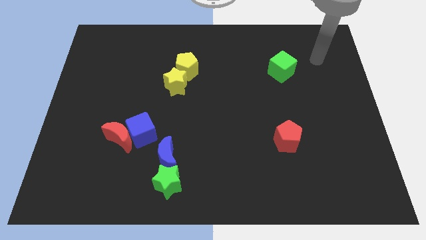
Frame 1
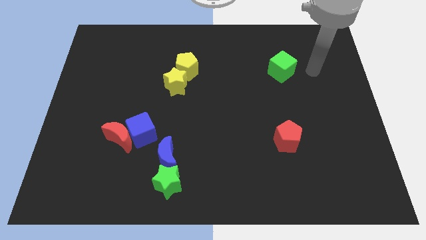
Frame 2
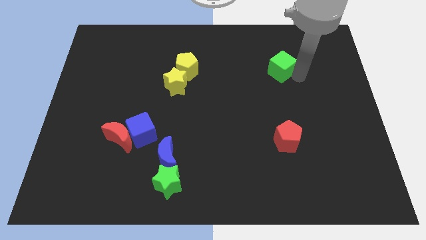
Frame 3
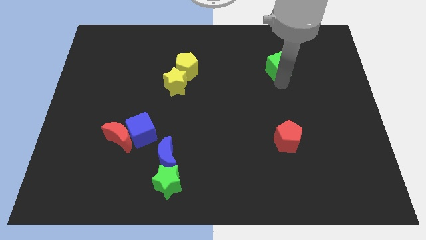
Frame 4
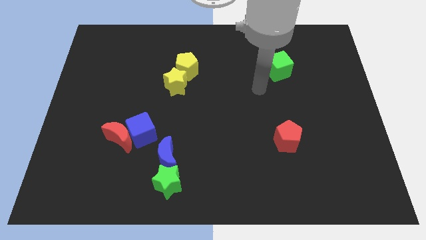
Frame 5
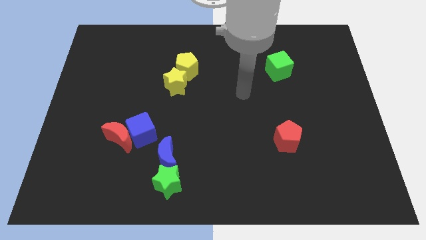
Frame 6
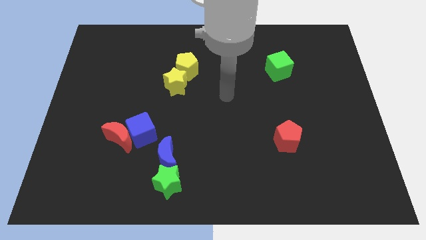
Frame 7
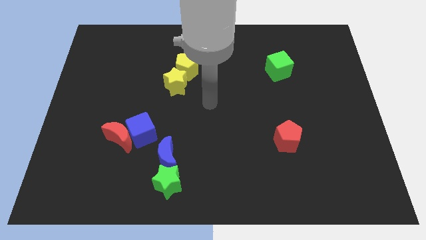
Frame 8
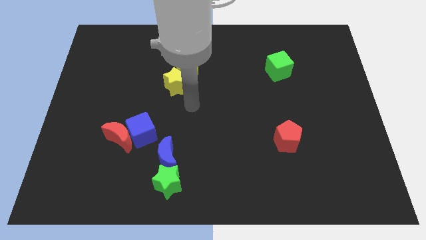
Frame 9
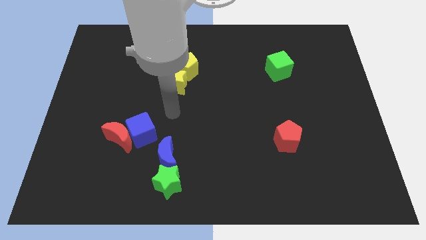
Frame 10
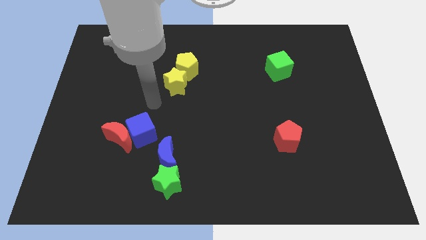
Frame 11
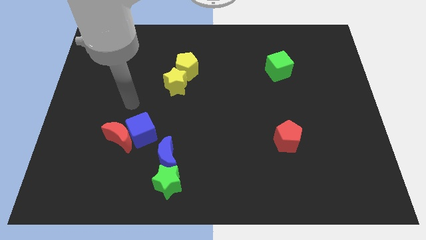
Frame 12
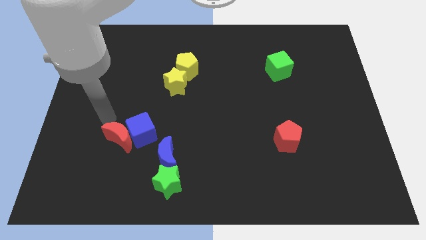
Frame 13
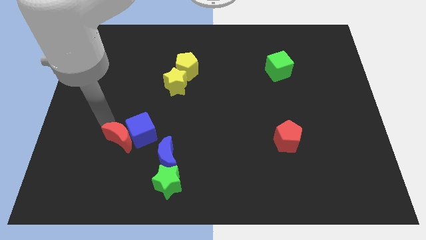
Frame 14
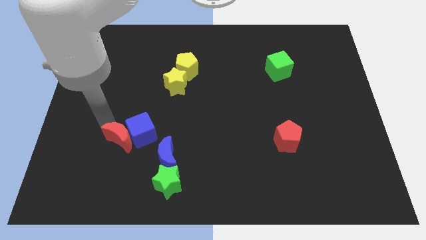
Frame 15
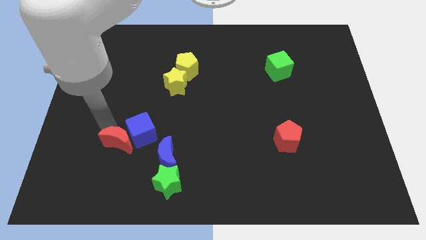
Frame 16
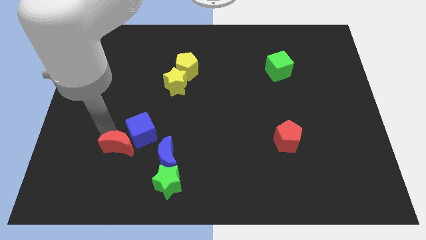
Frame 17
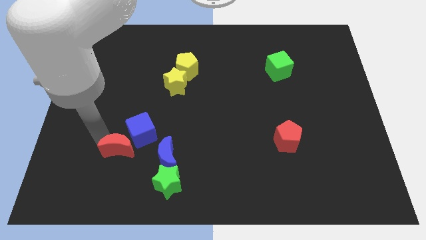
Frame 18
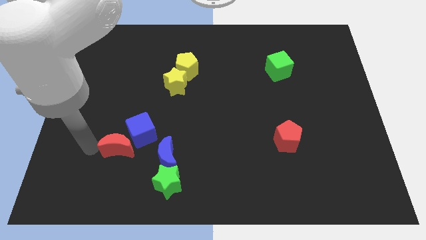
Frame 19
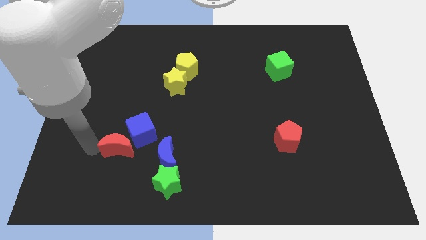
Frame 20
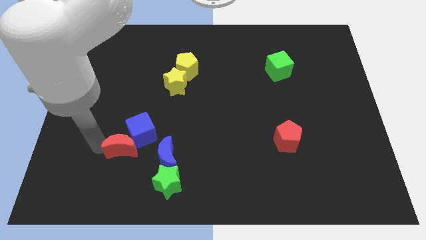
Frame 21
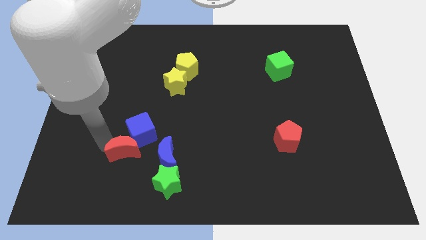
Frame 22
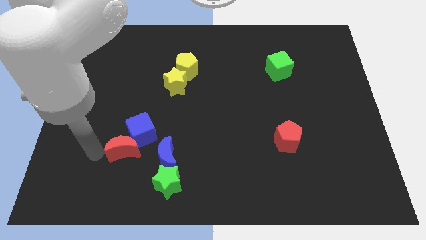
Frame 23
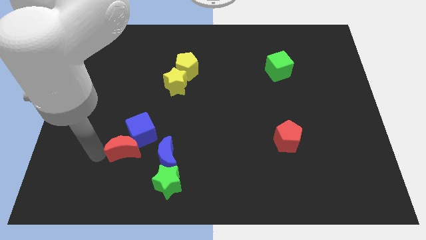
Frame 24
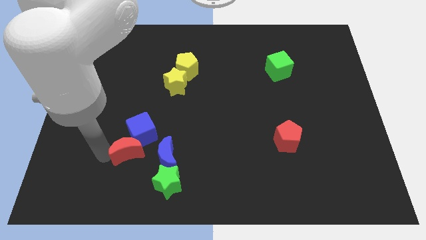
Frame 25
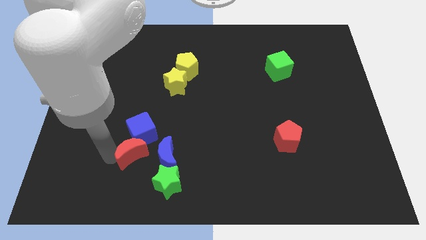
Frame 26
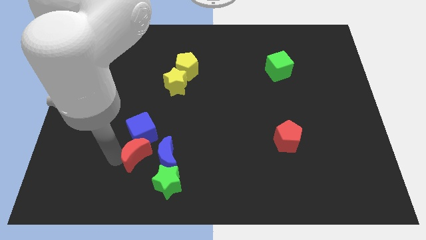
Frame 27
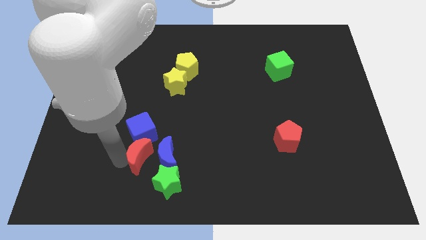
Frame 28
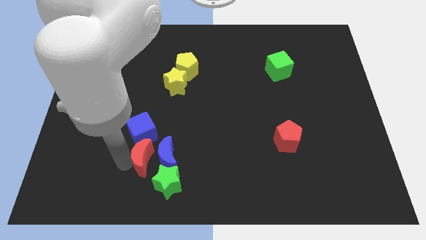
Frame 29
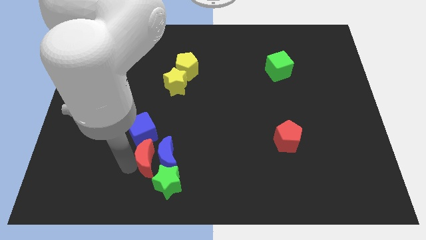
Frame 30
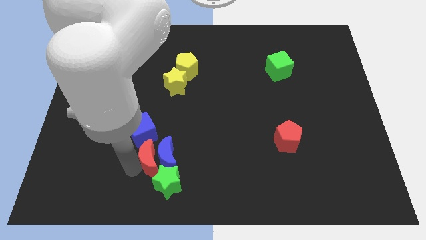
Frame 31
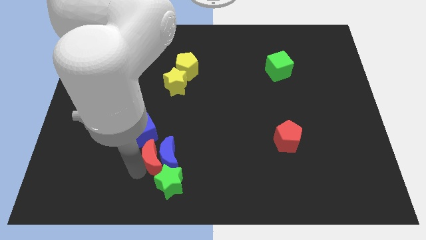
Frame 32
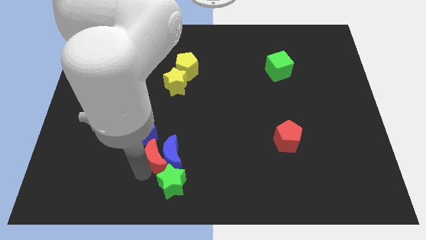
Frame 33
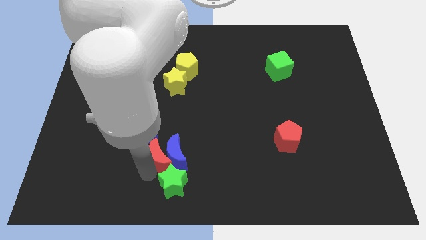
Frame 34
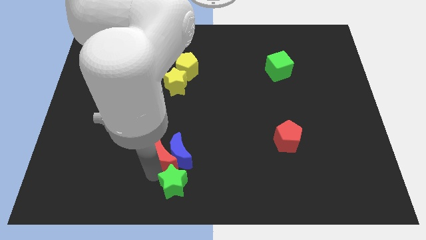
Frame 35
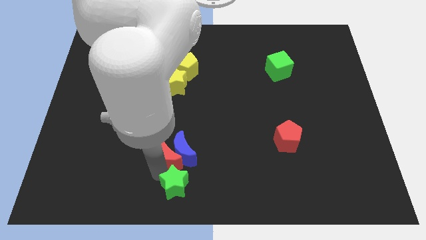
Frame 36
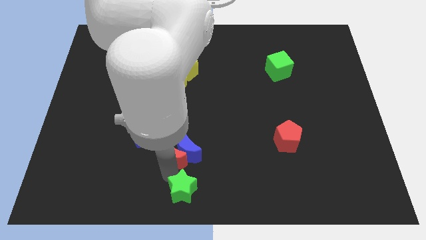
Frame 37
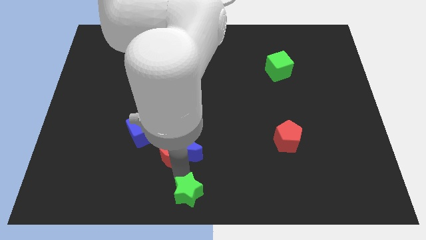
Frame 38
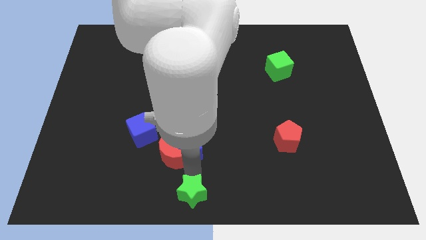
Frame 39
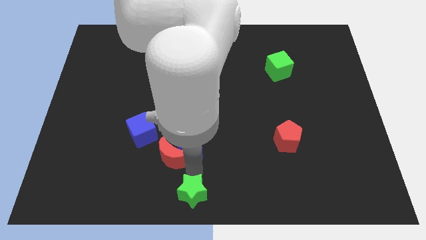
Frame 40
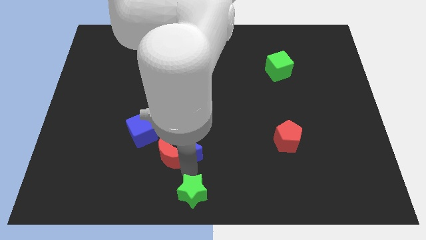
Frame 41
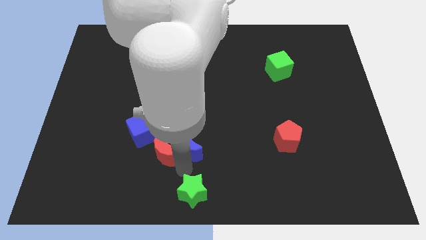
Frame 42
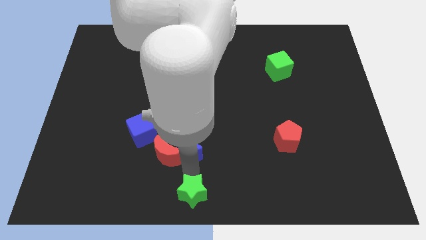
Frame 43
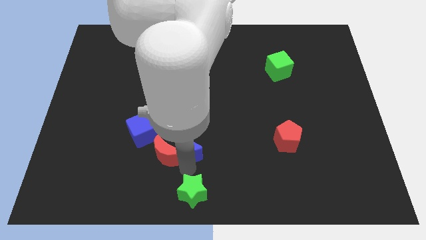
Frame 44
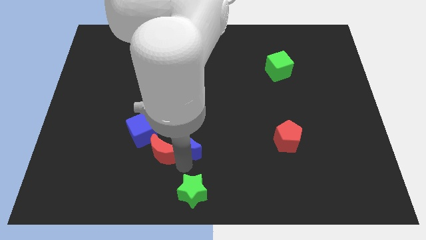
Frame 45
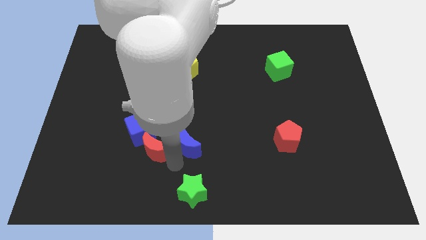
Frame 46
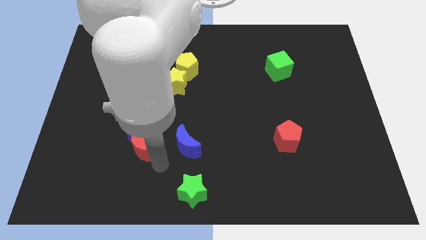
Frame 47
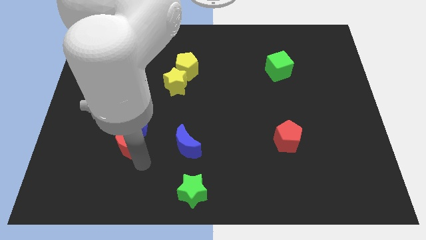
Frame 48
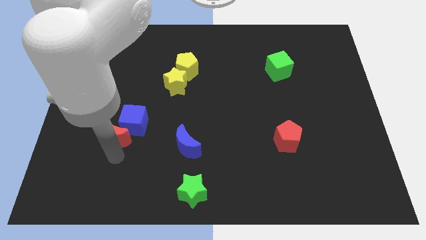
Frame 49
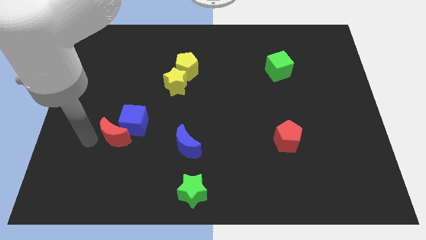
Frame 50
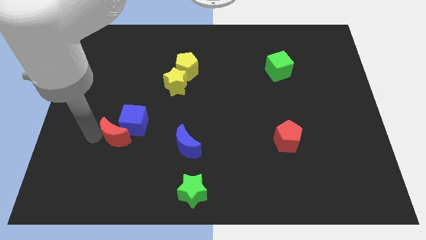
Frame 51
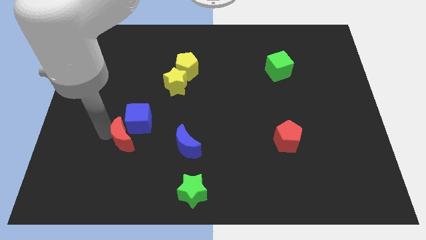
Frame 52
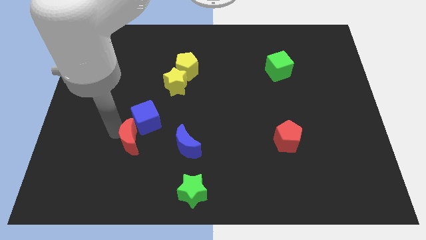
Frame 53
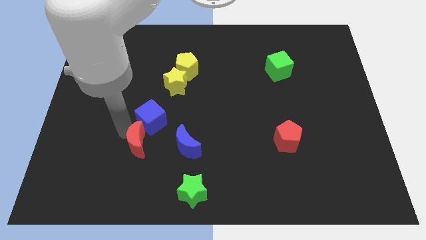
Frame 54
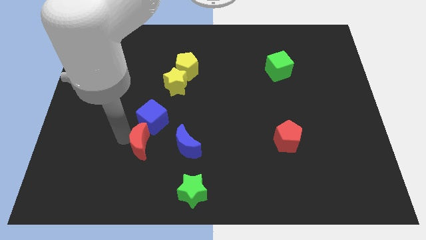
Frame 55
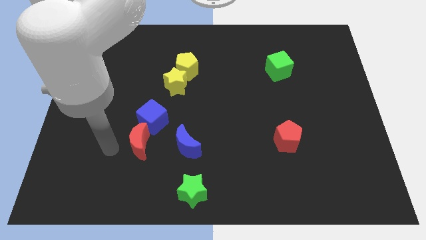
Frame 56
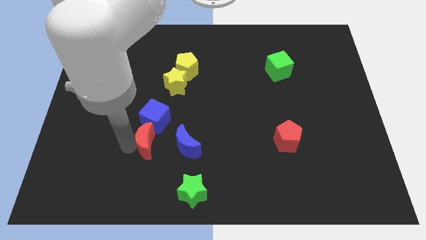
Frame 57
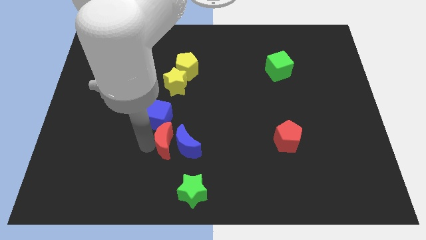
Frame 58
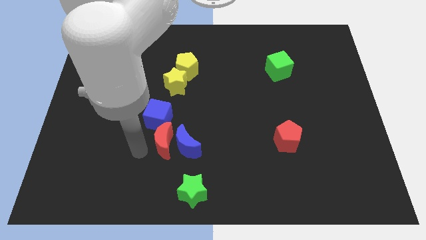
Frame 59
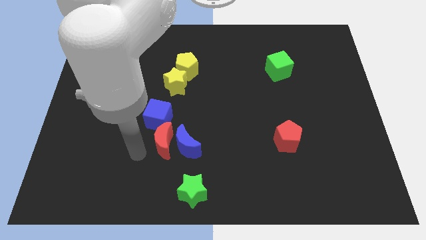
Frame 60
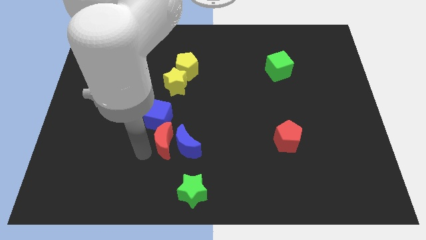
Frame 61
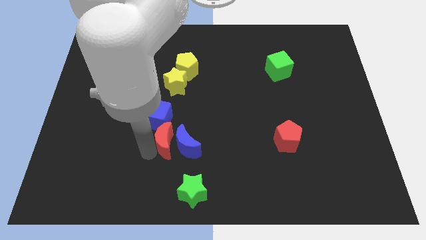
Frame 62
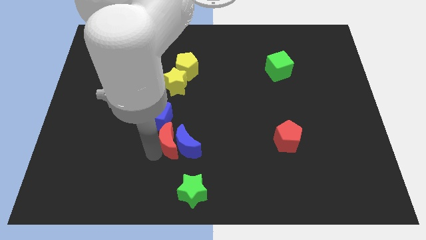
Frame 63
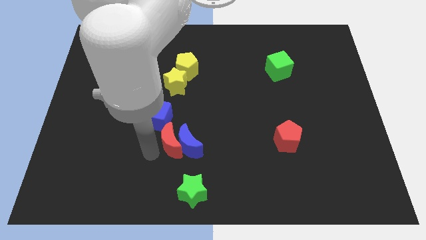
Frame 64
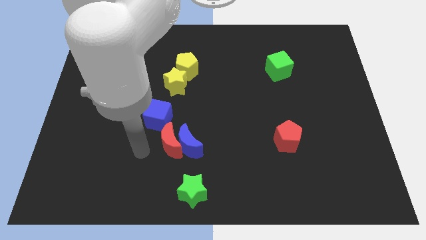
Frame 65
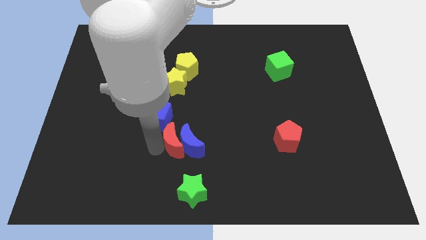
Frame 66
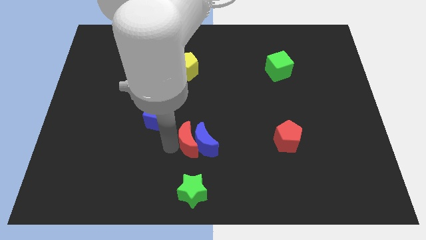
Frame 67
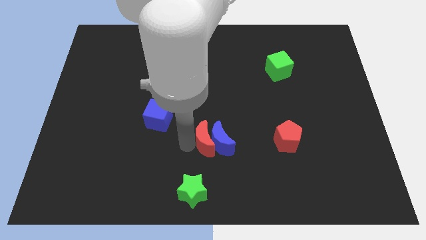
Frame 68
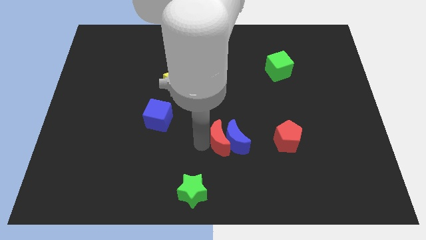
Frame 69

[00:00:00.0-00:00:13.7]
slide the red moon left of the red pentagon

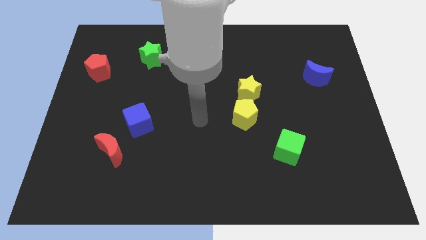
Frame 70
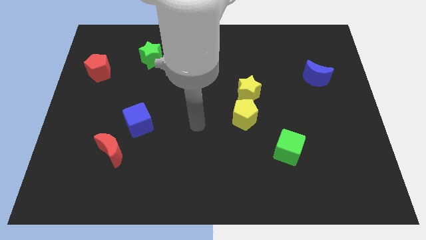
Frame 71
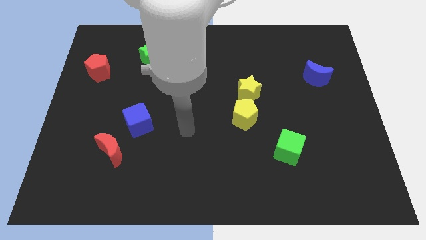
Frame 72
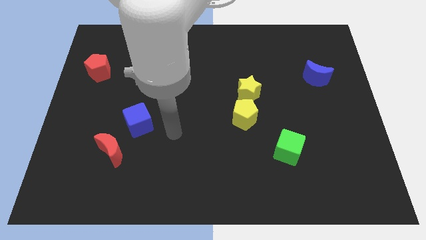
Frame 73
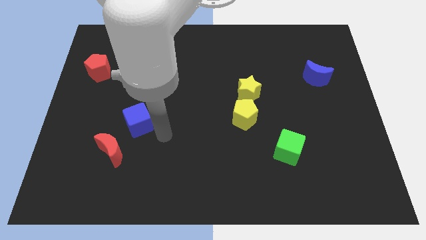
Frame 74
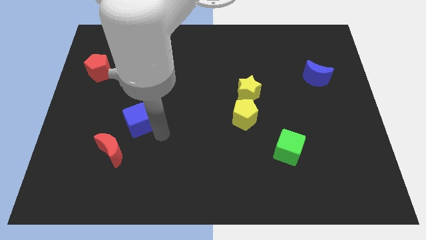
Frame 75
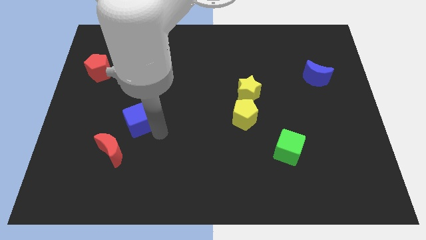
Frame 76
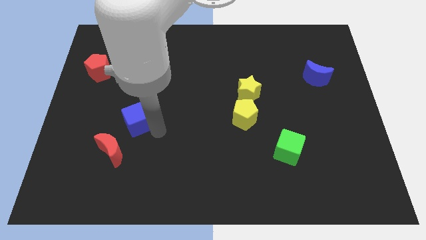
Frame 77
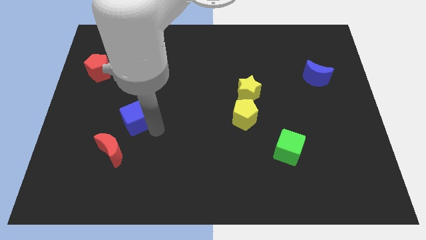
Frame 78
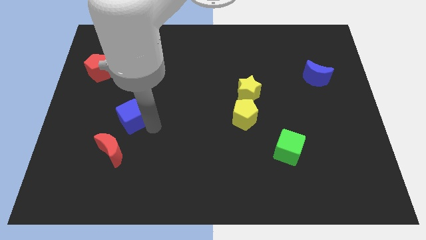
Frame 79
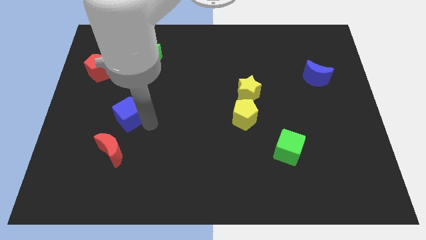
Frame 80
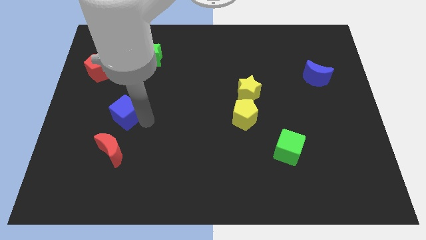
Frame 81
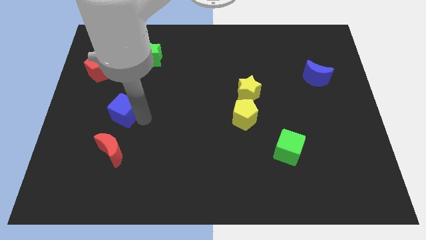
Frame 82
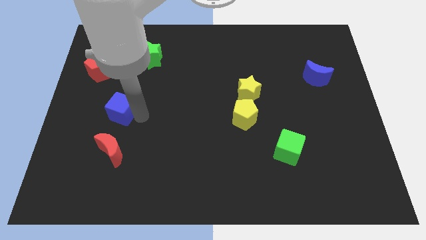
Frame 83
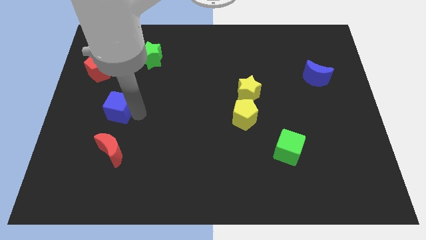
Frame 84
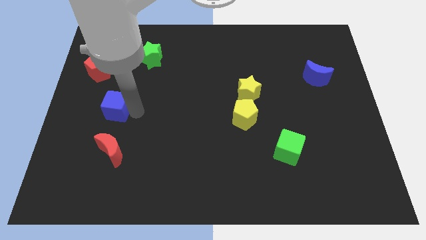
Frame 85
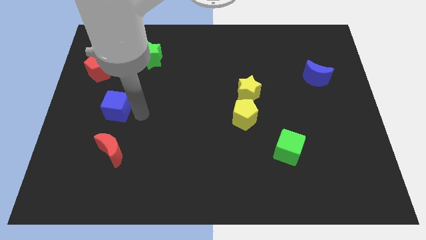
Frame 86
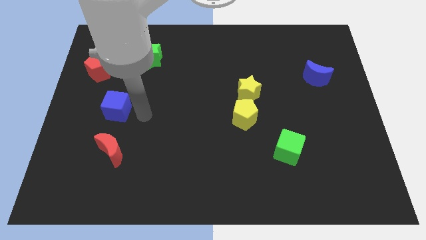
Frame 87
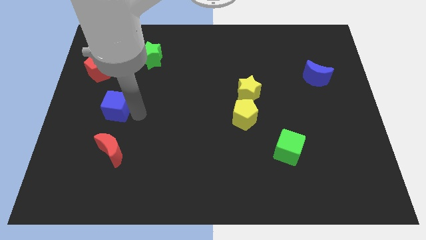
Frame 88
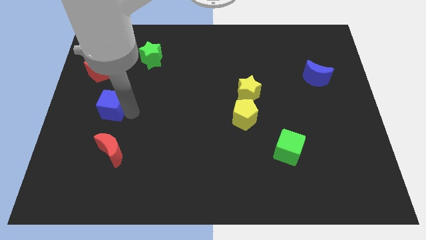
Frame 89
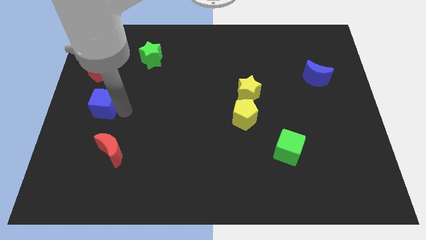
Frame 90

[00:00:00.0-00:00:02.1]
push the blue cube to the bottom side of the red pentagon
